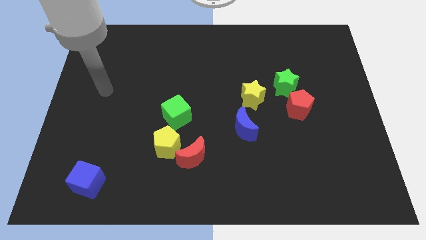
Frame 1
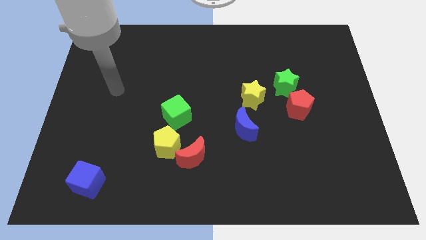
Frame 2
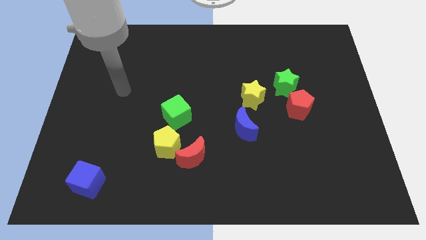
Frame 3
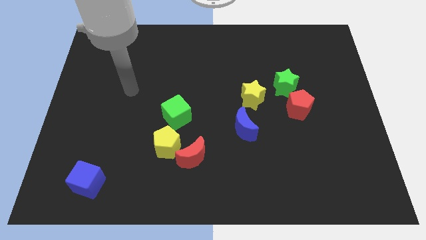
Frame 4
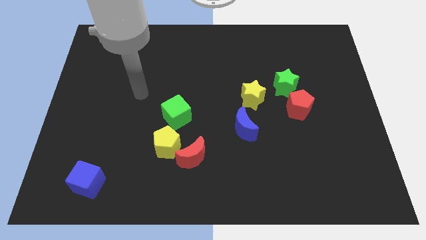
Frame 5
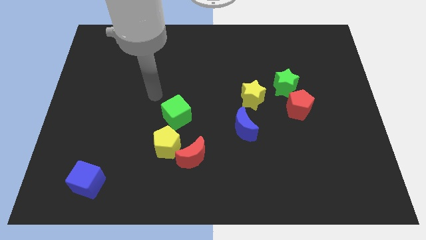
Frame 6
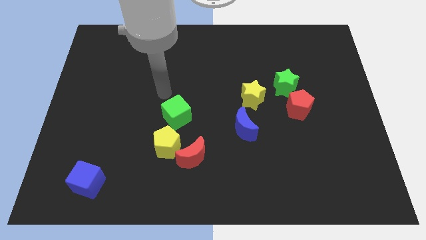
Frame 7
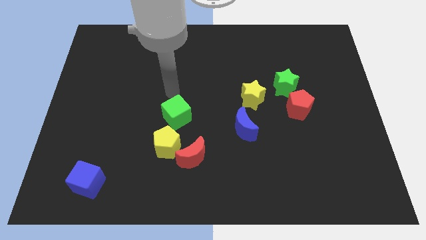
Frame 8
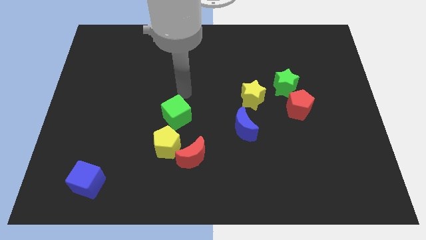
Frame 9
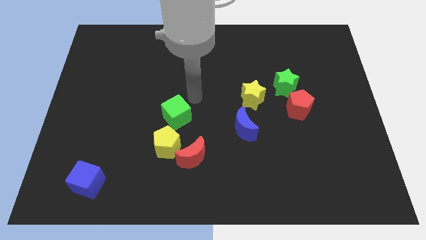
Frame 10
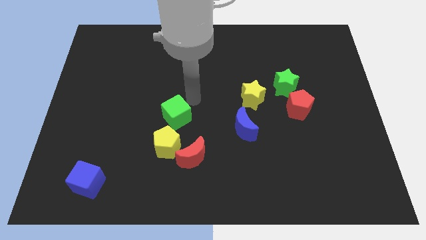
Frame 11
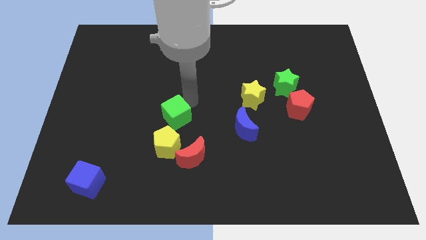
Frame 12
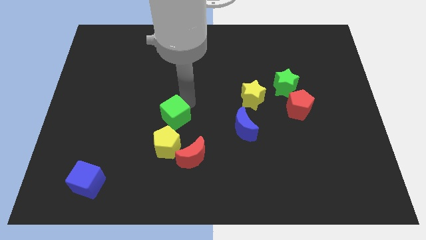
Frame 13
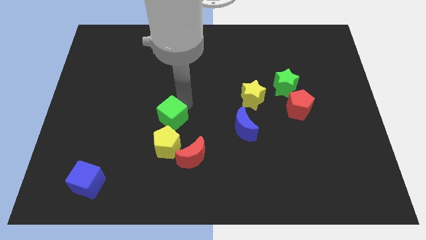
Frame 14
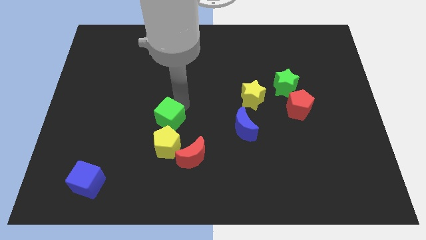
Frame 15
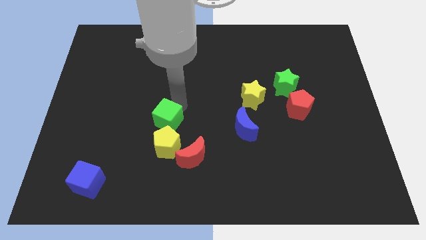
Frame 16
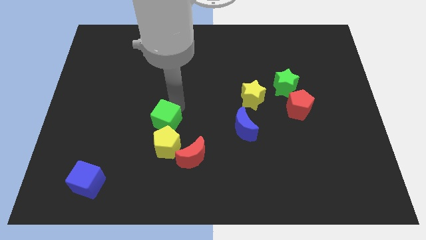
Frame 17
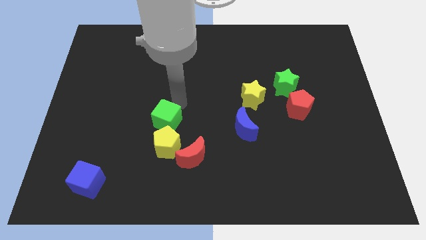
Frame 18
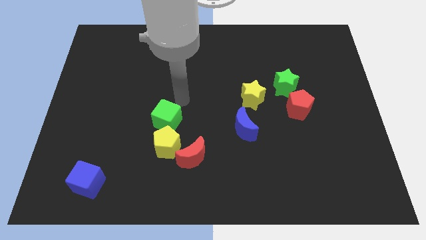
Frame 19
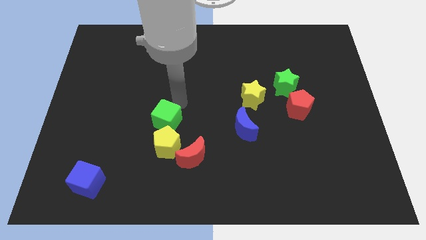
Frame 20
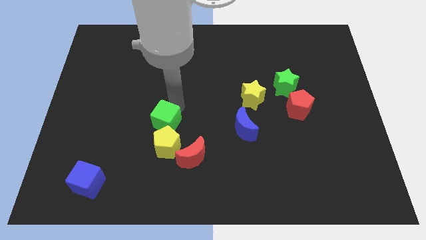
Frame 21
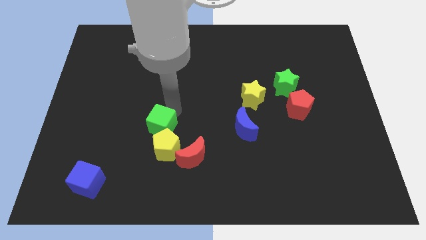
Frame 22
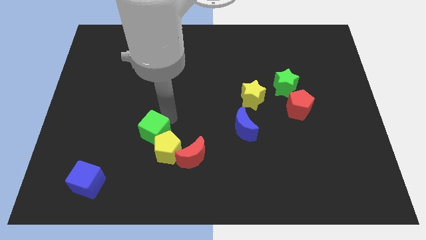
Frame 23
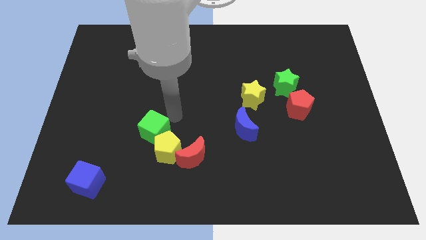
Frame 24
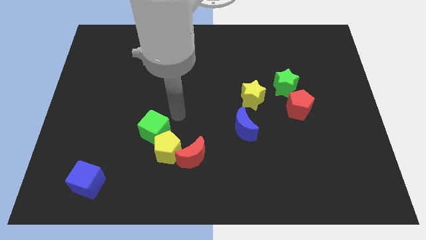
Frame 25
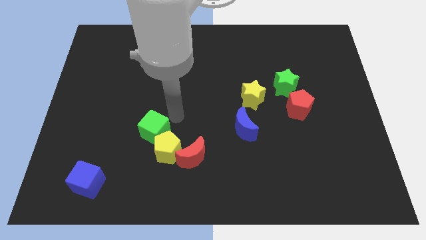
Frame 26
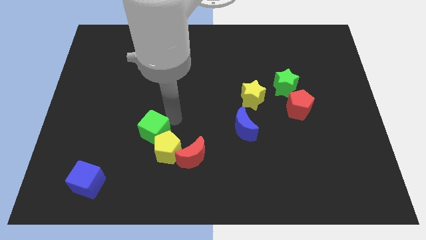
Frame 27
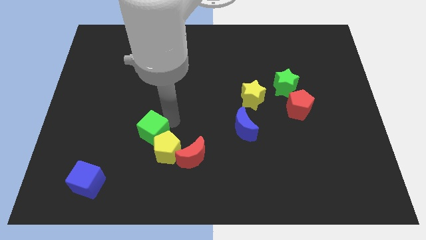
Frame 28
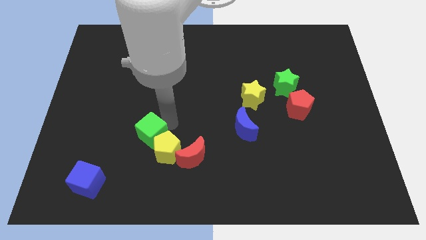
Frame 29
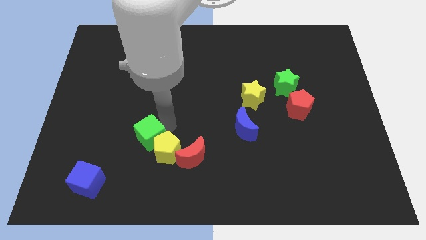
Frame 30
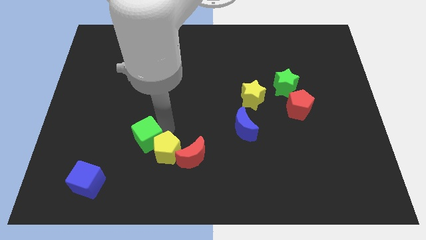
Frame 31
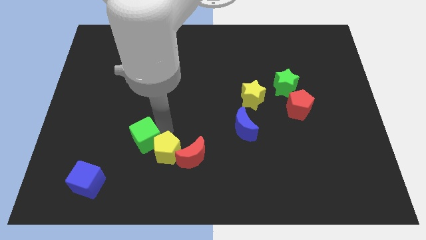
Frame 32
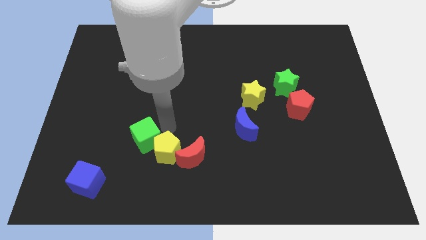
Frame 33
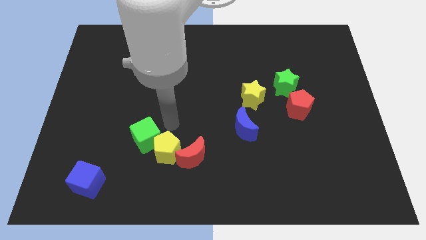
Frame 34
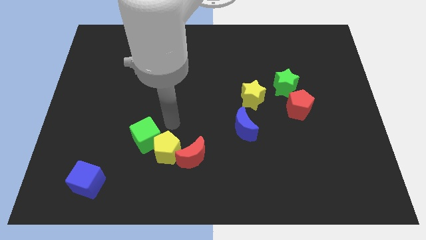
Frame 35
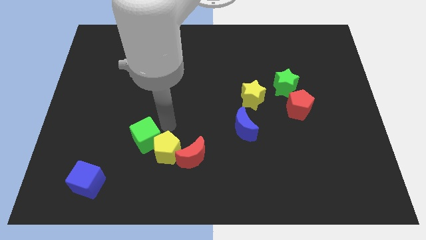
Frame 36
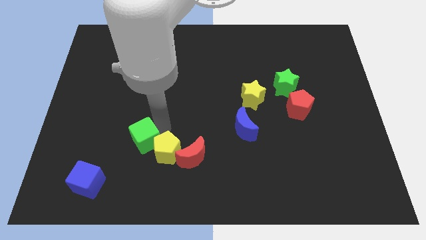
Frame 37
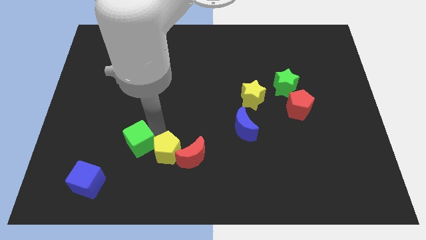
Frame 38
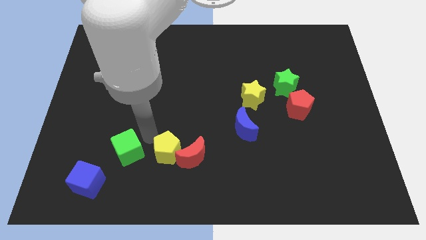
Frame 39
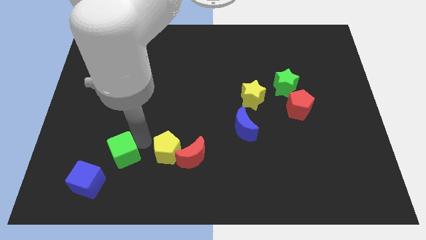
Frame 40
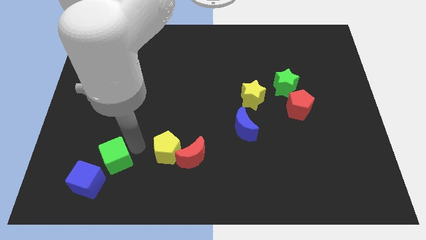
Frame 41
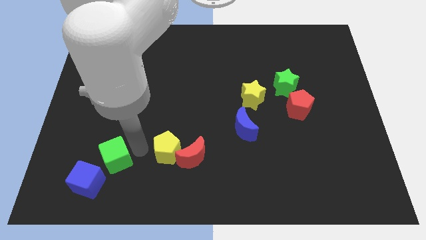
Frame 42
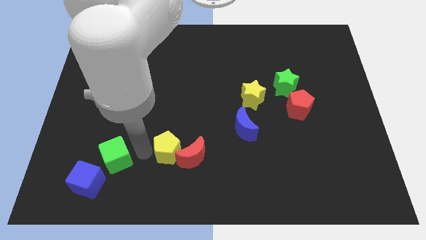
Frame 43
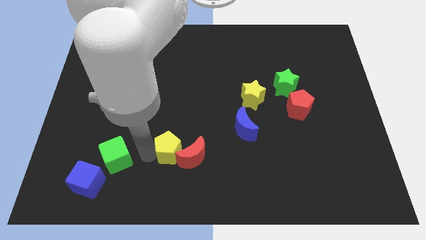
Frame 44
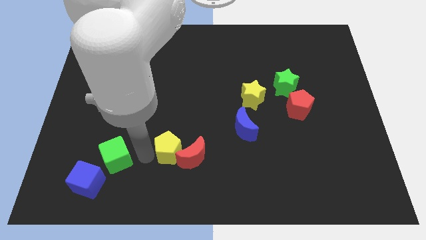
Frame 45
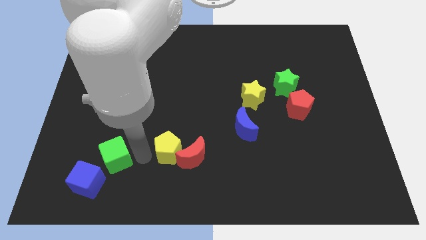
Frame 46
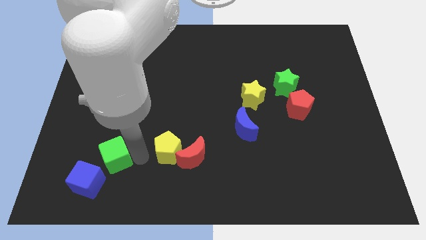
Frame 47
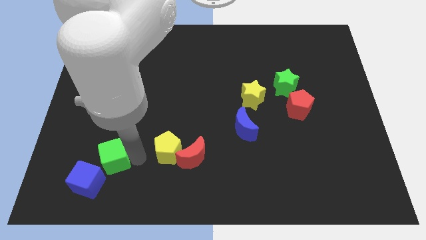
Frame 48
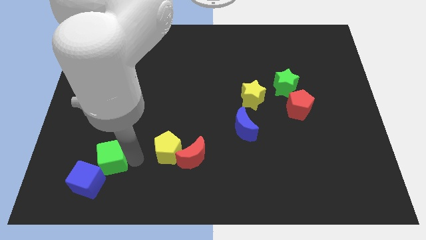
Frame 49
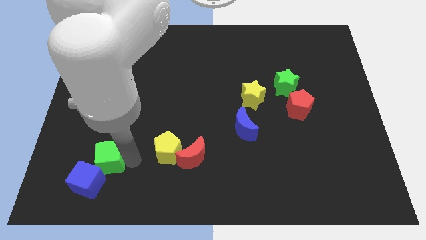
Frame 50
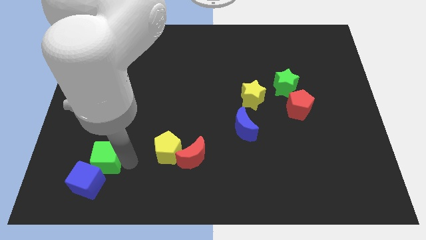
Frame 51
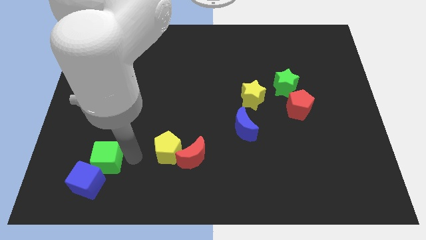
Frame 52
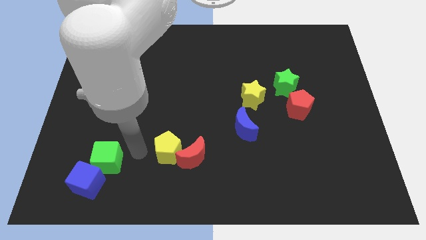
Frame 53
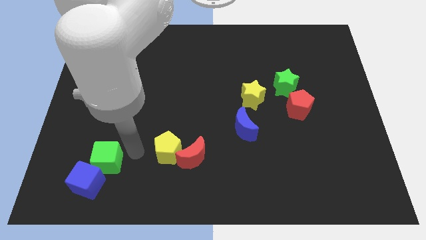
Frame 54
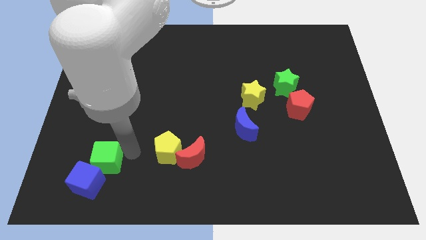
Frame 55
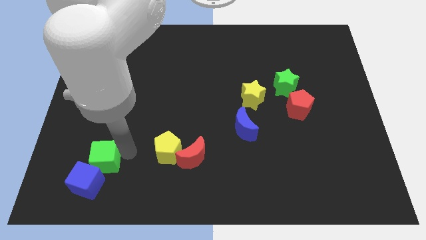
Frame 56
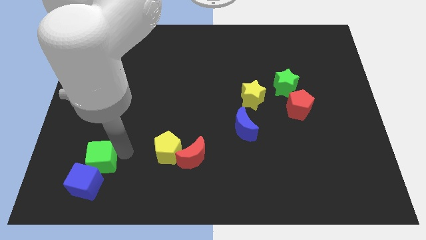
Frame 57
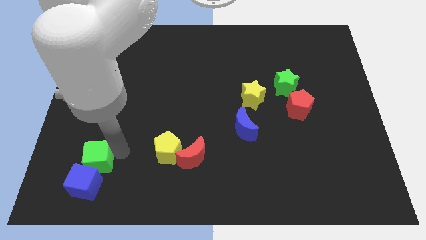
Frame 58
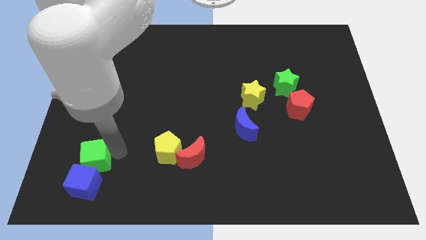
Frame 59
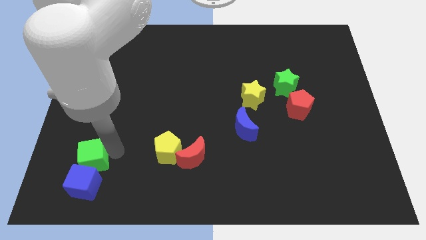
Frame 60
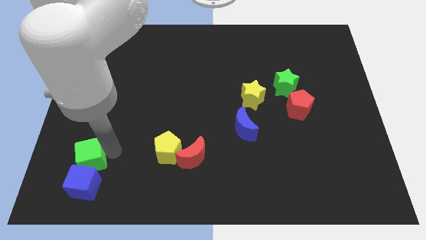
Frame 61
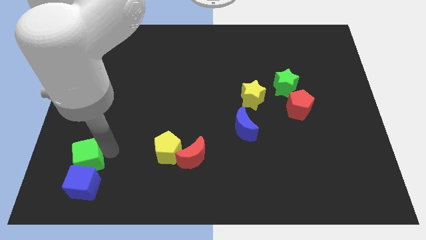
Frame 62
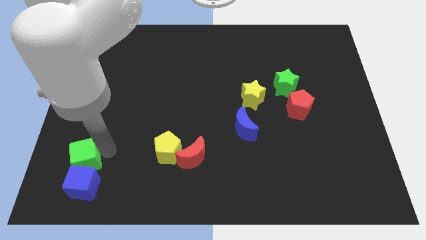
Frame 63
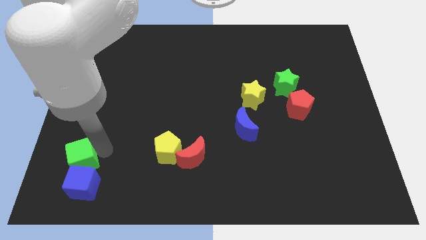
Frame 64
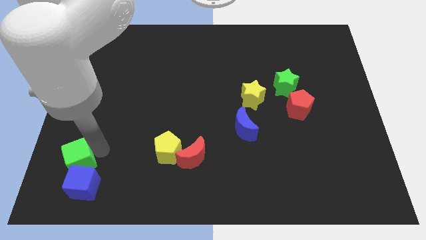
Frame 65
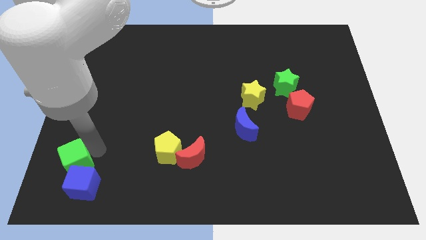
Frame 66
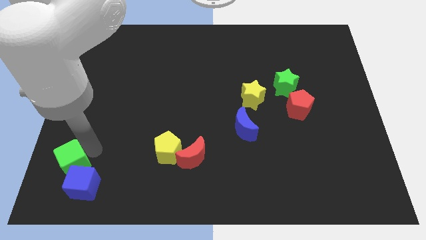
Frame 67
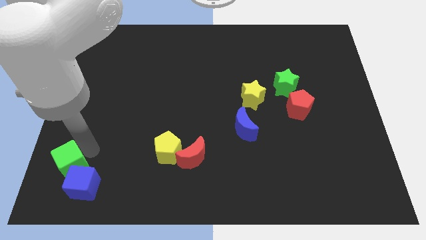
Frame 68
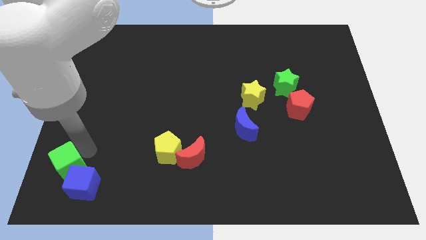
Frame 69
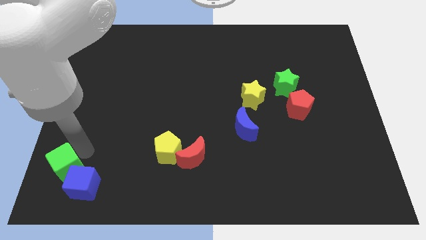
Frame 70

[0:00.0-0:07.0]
push the green cube to the bottom left of the board
